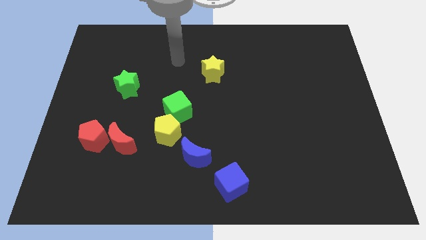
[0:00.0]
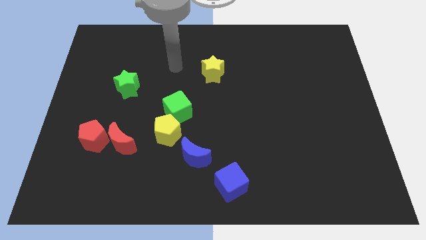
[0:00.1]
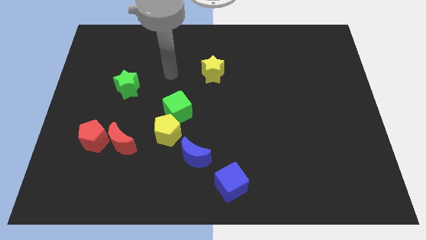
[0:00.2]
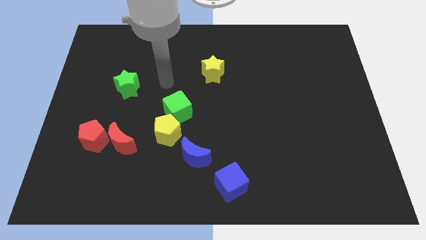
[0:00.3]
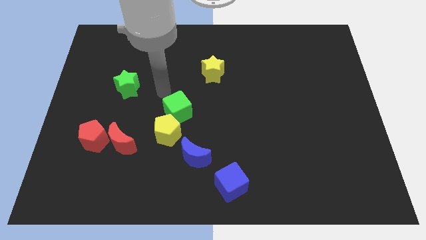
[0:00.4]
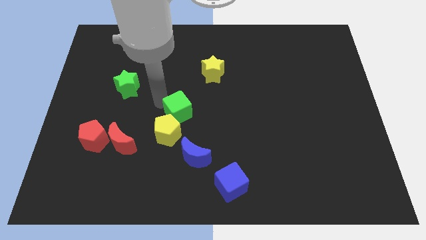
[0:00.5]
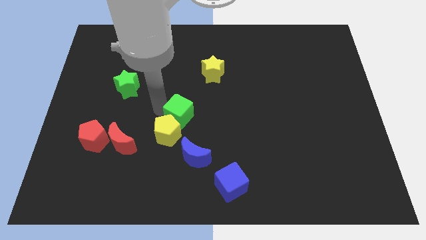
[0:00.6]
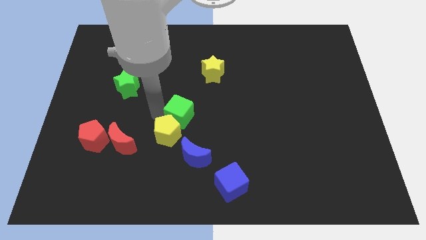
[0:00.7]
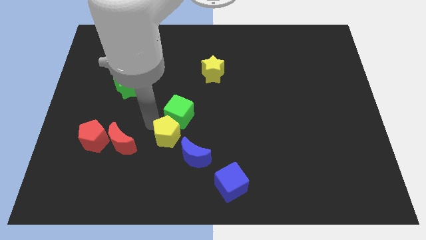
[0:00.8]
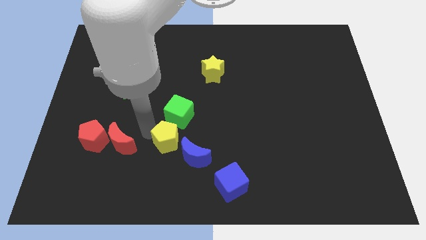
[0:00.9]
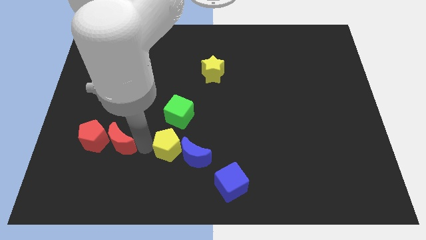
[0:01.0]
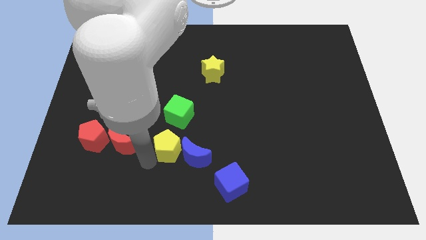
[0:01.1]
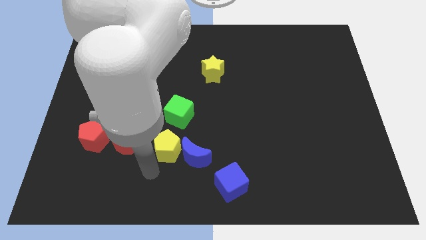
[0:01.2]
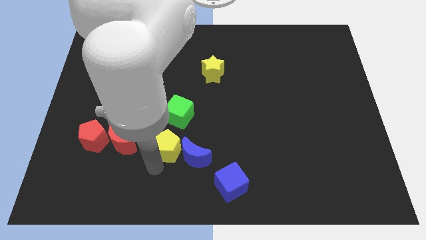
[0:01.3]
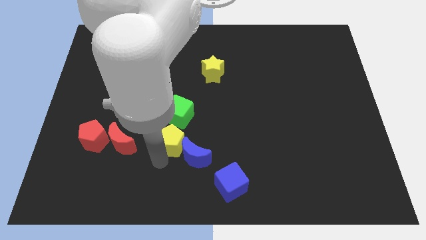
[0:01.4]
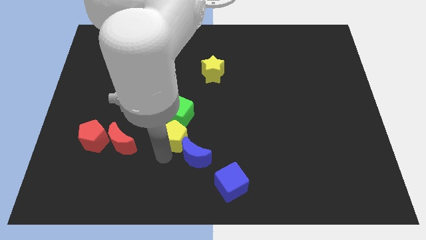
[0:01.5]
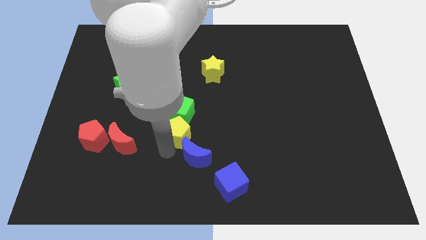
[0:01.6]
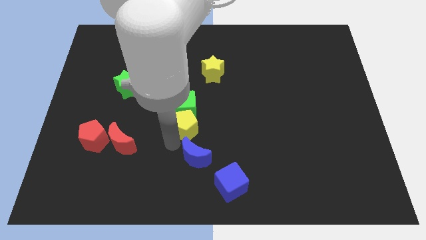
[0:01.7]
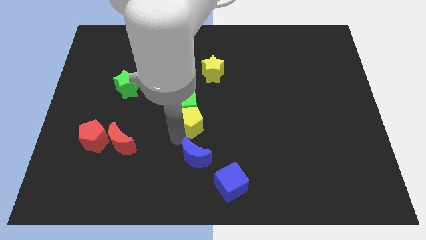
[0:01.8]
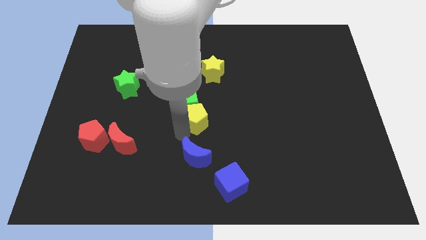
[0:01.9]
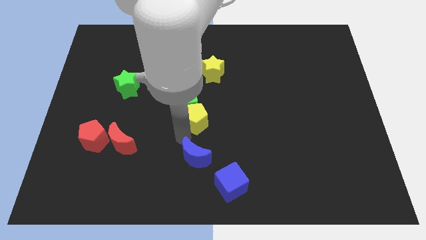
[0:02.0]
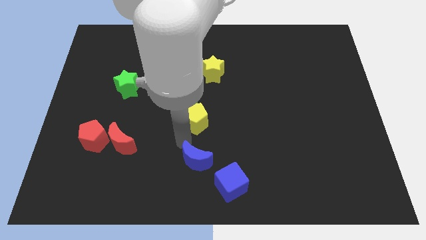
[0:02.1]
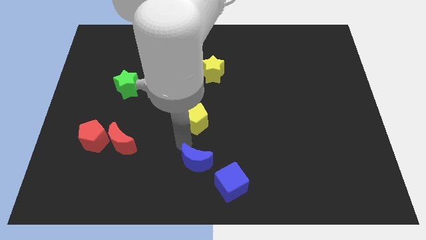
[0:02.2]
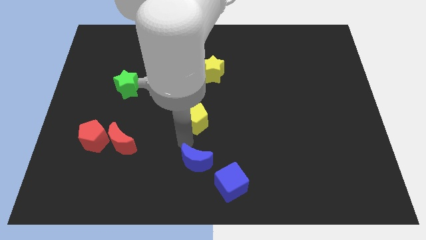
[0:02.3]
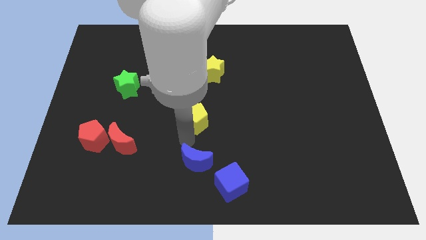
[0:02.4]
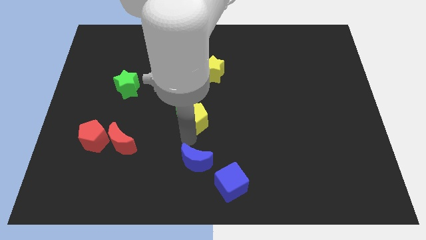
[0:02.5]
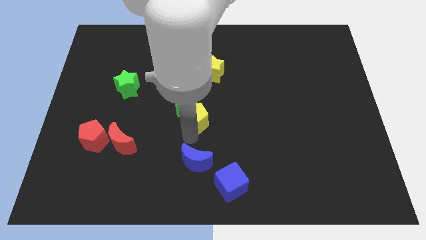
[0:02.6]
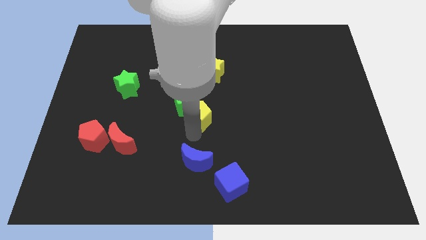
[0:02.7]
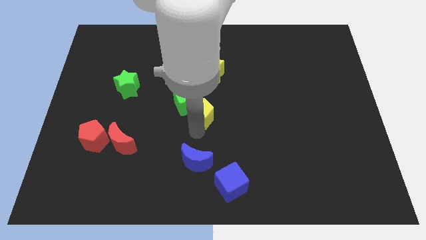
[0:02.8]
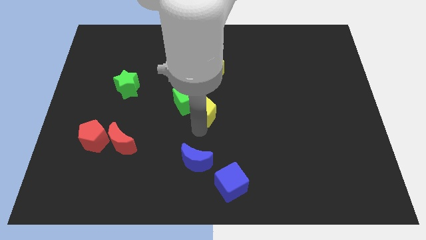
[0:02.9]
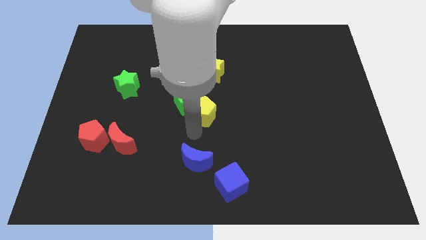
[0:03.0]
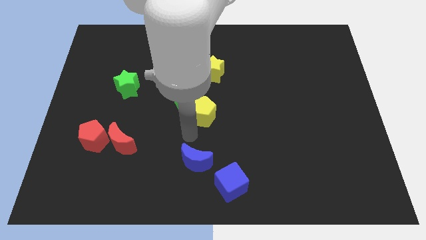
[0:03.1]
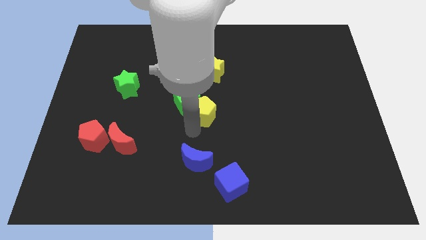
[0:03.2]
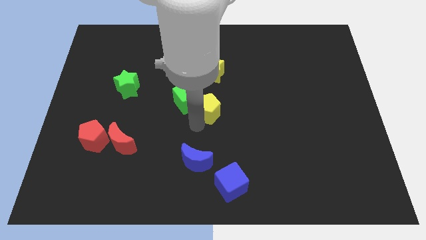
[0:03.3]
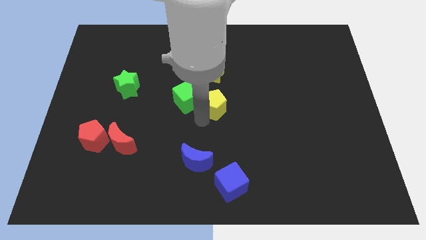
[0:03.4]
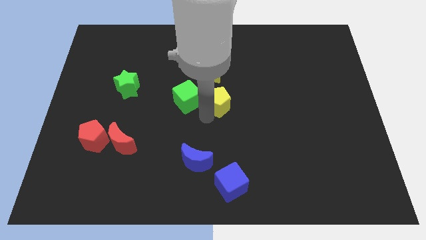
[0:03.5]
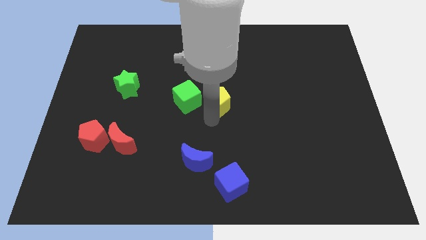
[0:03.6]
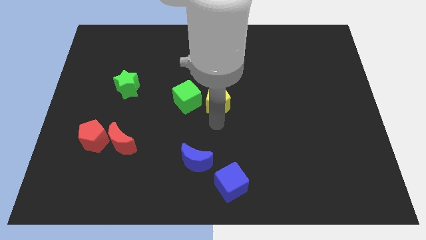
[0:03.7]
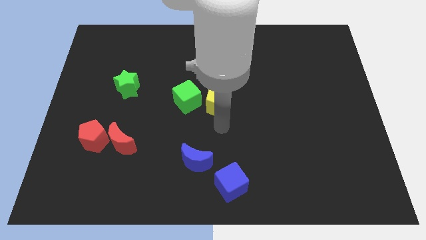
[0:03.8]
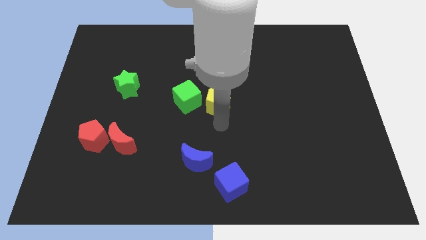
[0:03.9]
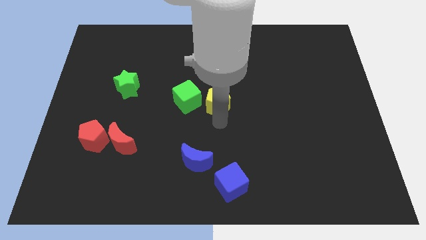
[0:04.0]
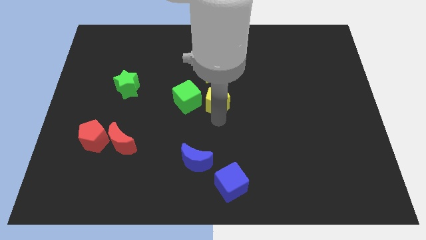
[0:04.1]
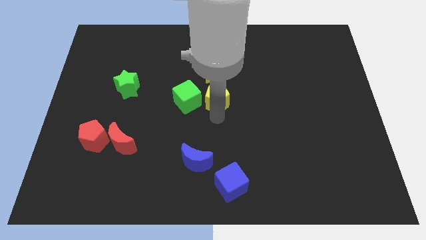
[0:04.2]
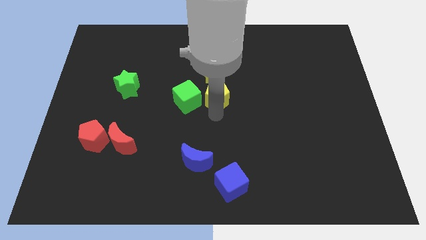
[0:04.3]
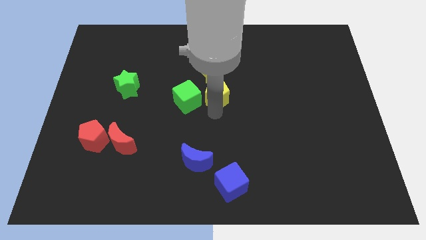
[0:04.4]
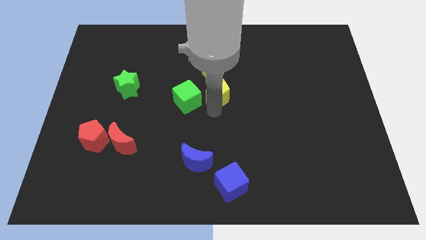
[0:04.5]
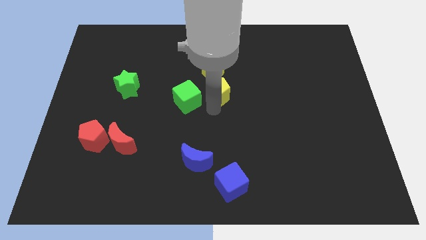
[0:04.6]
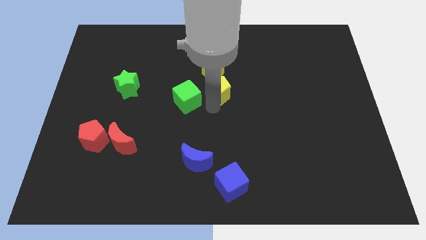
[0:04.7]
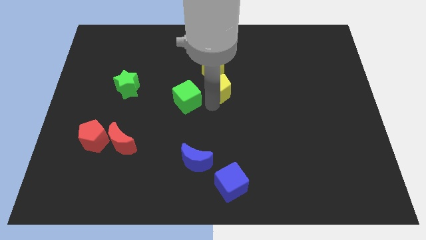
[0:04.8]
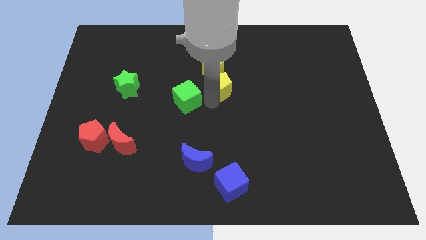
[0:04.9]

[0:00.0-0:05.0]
put the yellow pentagon to the yellow star

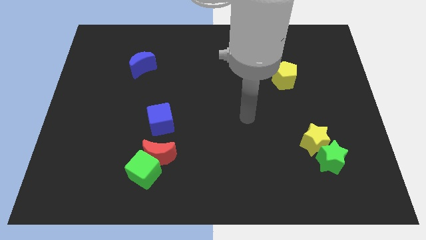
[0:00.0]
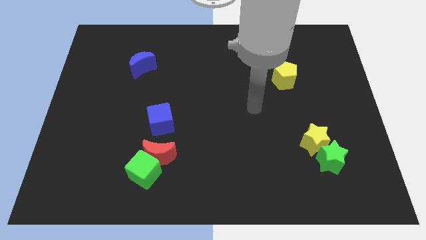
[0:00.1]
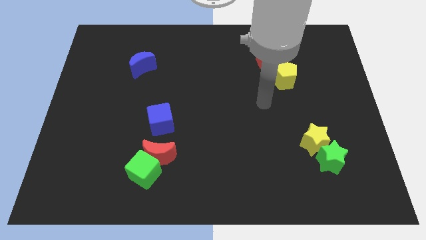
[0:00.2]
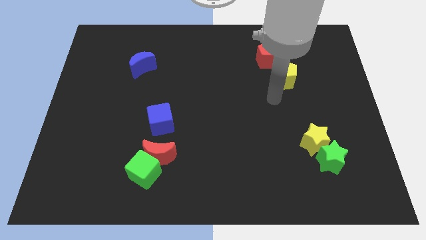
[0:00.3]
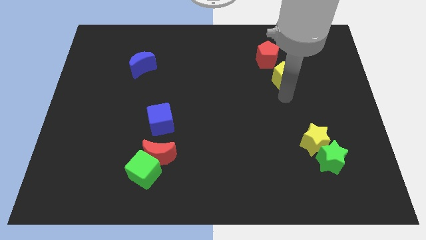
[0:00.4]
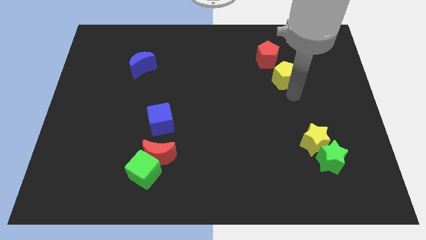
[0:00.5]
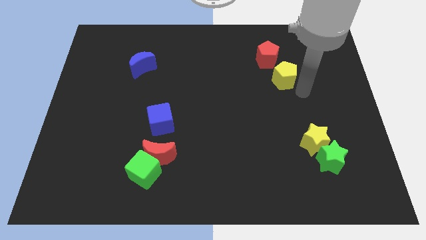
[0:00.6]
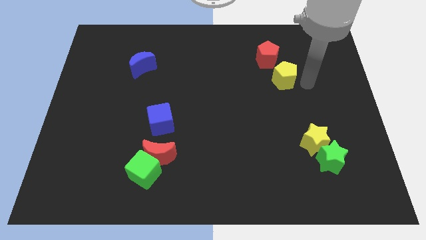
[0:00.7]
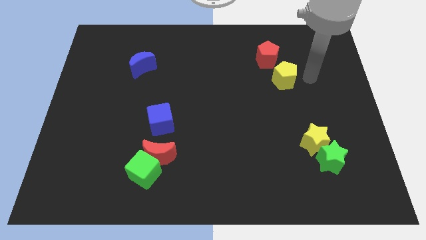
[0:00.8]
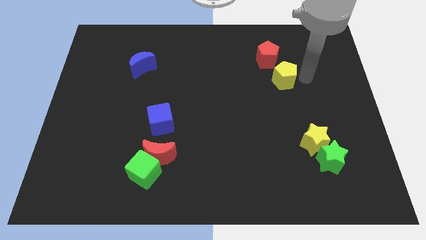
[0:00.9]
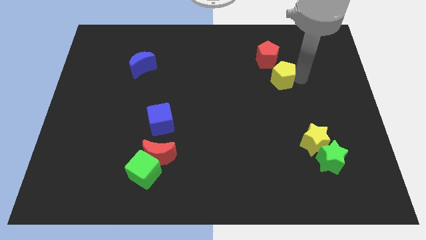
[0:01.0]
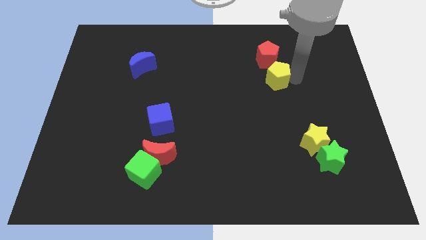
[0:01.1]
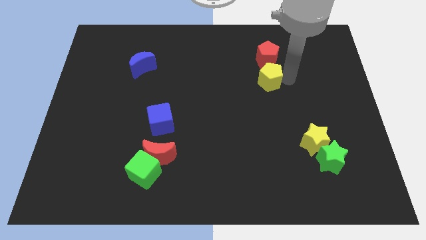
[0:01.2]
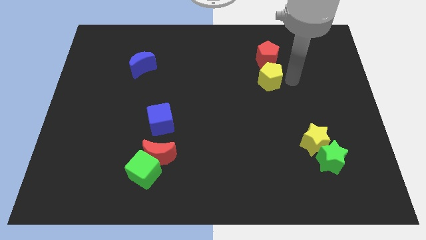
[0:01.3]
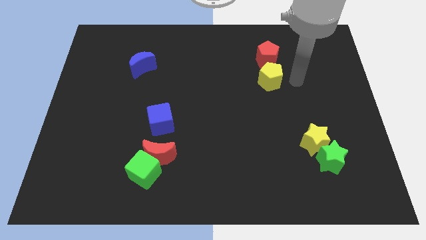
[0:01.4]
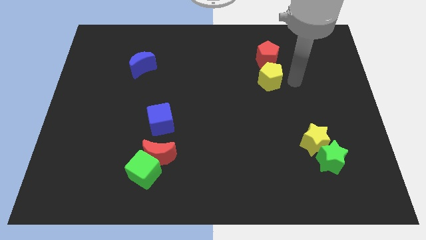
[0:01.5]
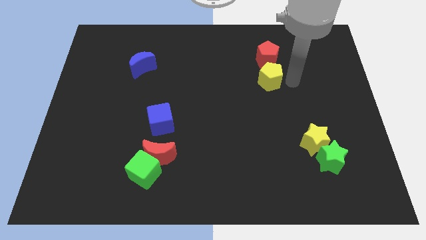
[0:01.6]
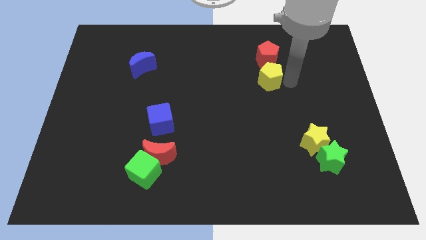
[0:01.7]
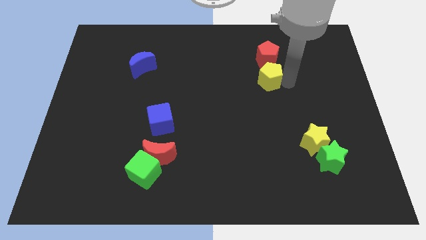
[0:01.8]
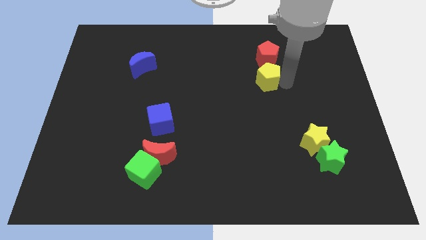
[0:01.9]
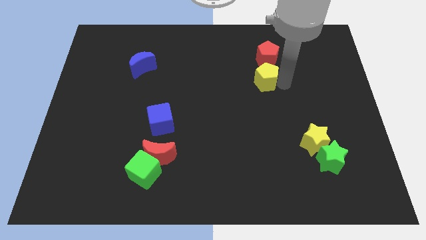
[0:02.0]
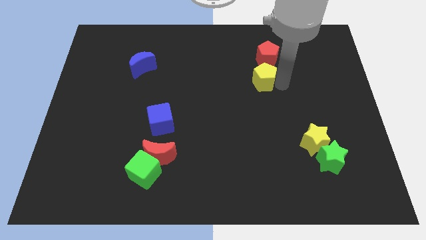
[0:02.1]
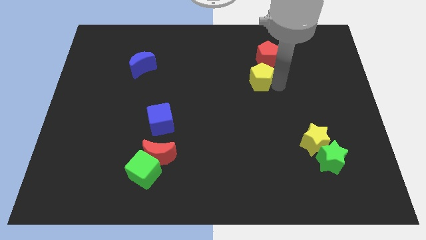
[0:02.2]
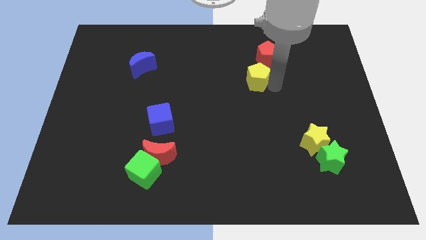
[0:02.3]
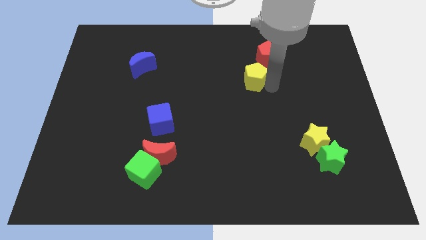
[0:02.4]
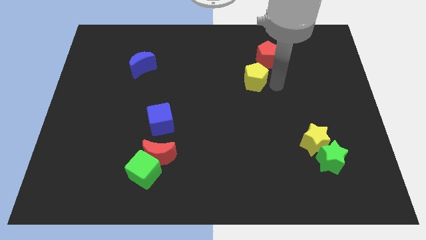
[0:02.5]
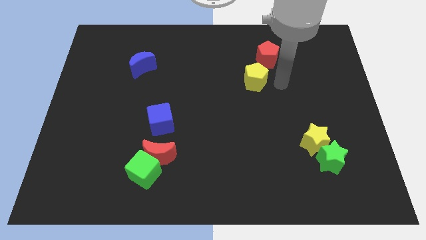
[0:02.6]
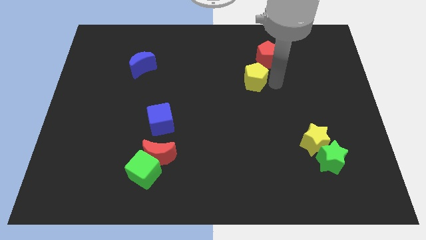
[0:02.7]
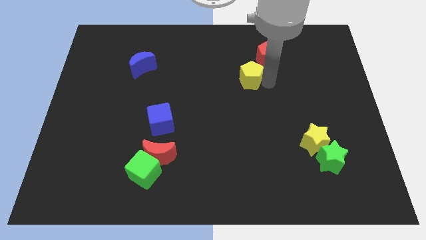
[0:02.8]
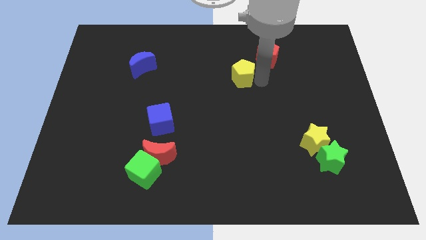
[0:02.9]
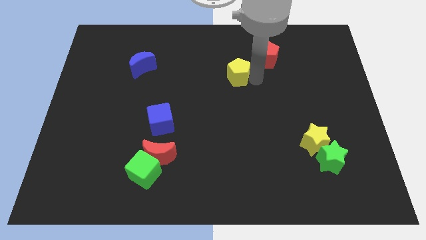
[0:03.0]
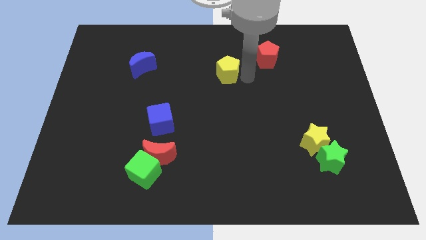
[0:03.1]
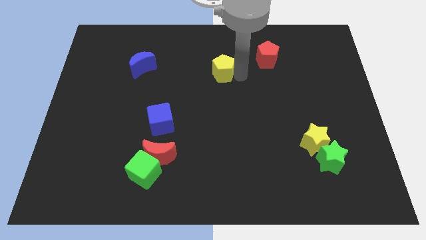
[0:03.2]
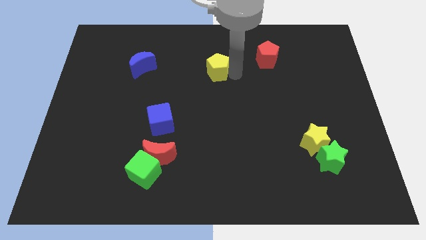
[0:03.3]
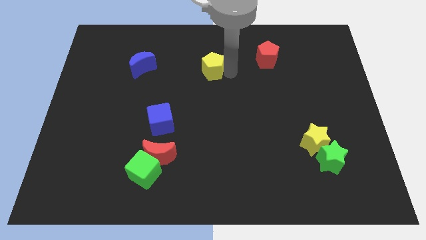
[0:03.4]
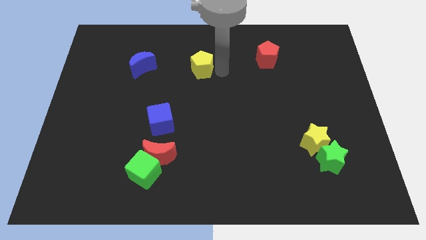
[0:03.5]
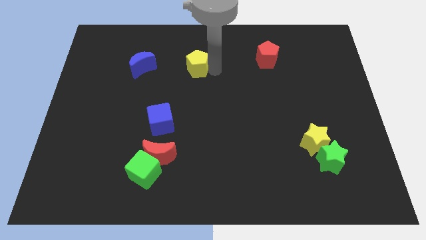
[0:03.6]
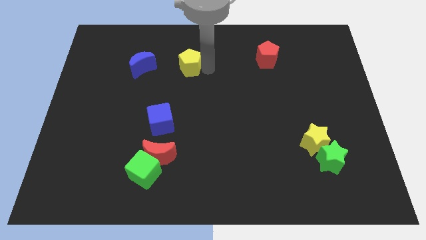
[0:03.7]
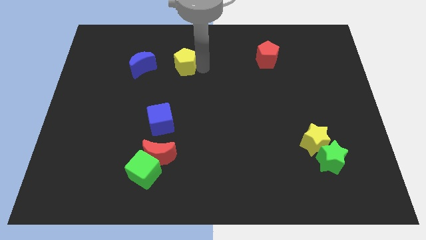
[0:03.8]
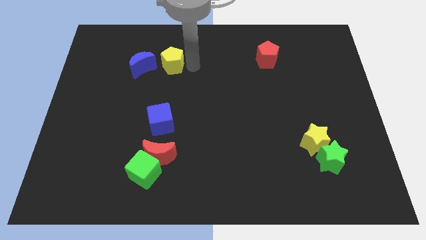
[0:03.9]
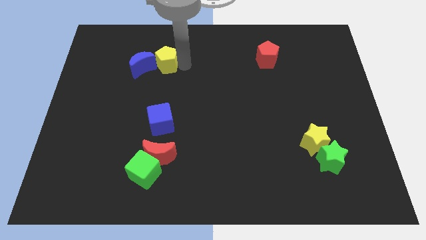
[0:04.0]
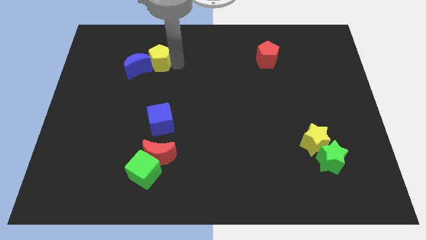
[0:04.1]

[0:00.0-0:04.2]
push the yellow pentagon close to the blue moon
